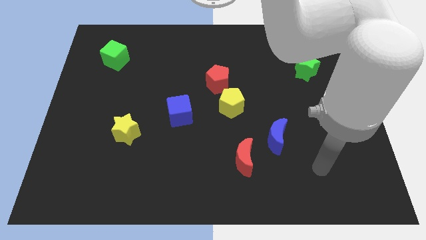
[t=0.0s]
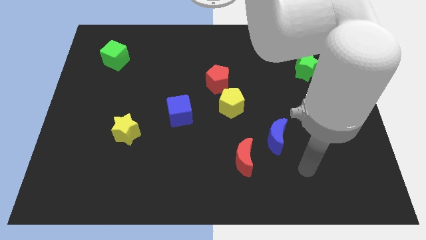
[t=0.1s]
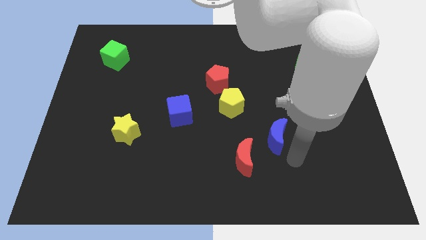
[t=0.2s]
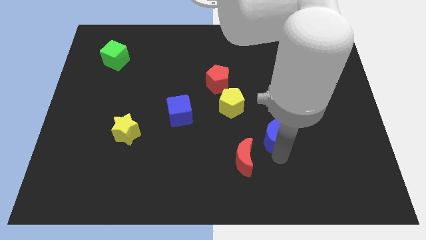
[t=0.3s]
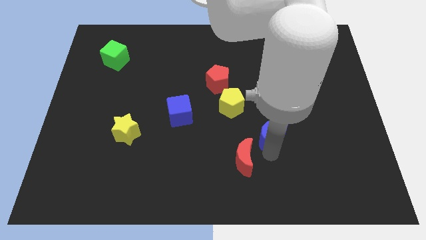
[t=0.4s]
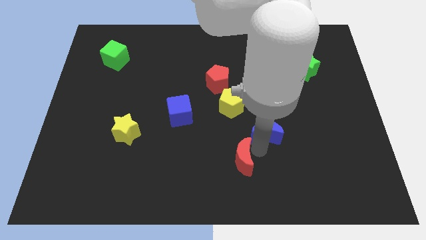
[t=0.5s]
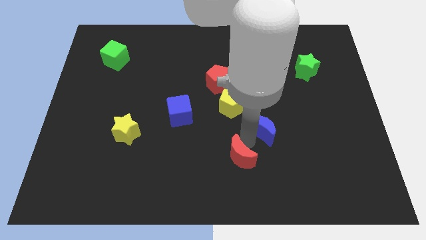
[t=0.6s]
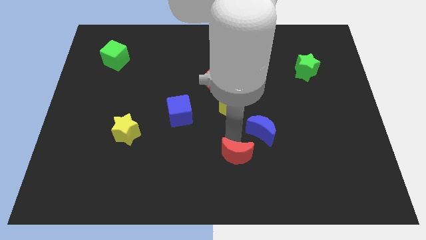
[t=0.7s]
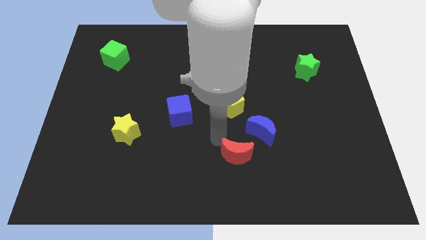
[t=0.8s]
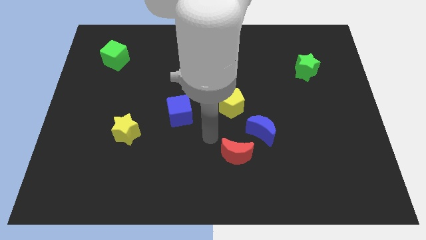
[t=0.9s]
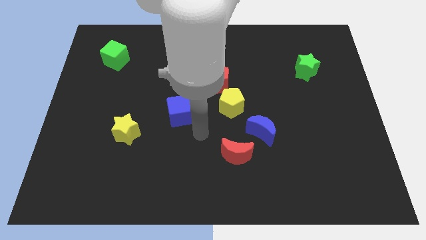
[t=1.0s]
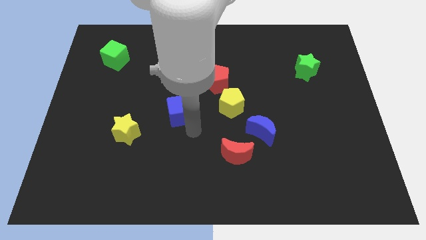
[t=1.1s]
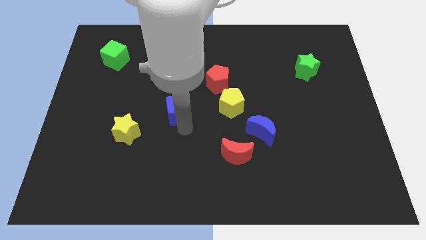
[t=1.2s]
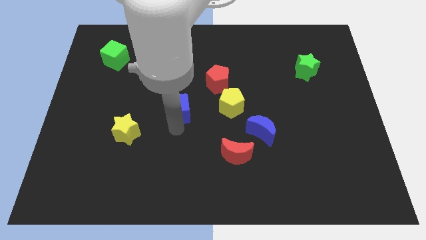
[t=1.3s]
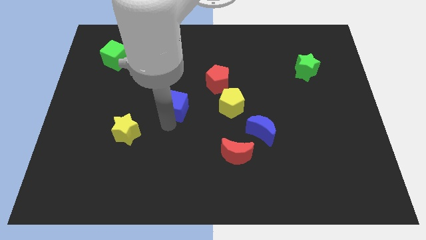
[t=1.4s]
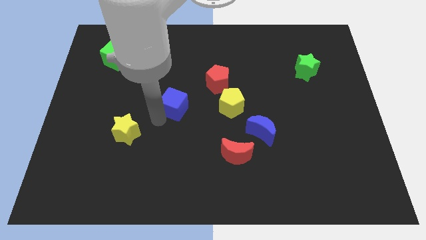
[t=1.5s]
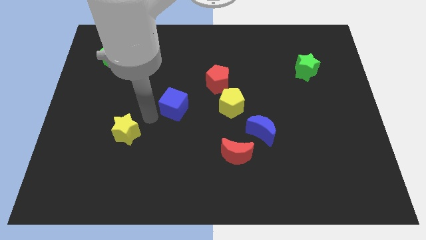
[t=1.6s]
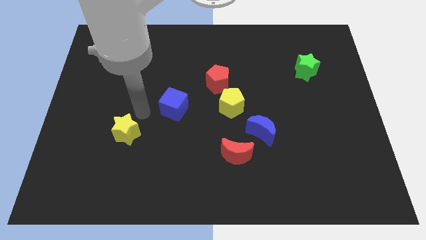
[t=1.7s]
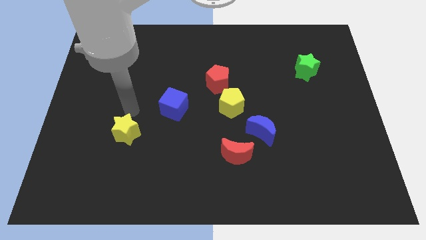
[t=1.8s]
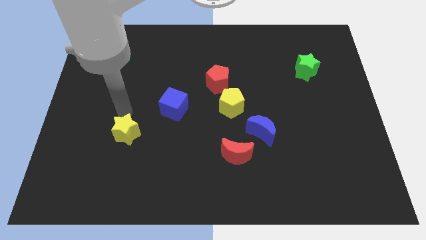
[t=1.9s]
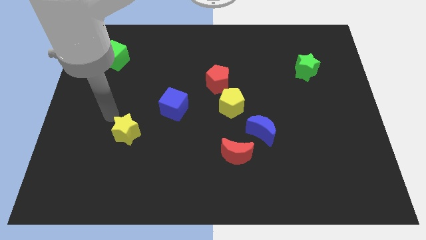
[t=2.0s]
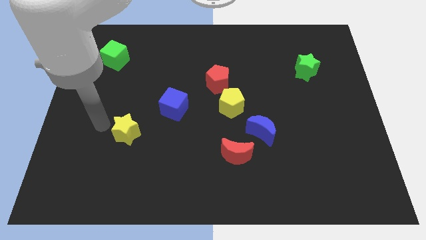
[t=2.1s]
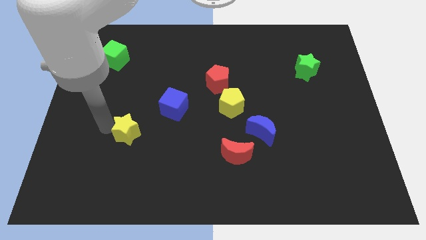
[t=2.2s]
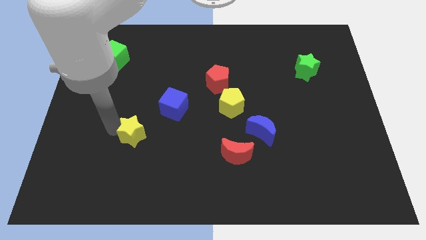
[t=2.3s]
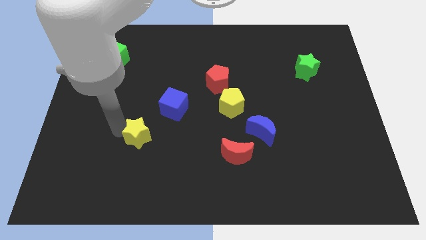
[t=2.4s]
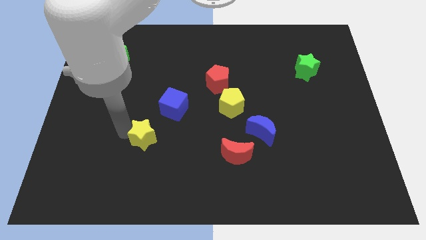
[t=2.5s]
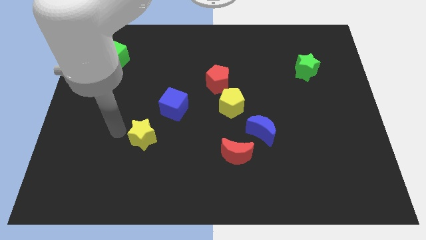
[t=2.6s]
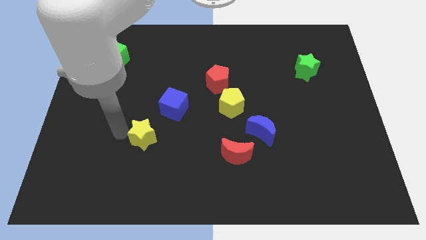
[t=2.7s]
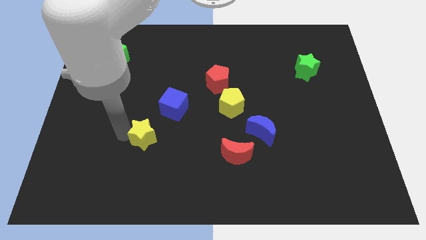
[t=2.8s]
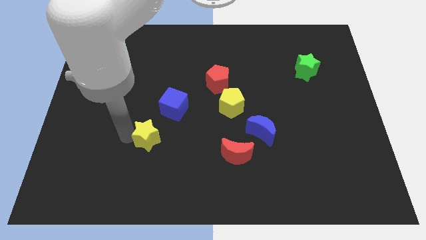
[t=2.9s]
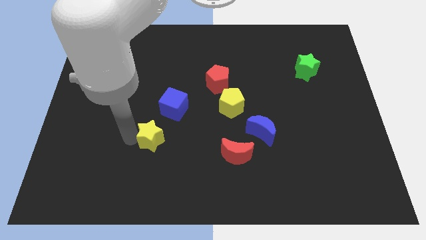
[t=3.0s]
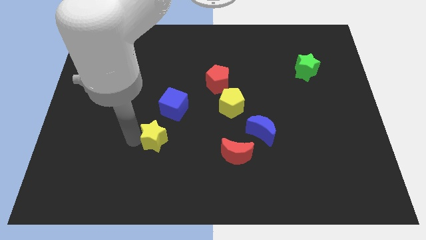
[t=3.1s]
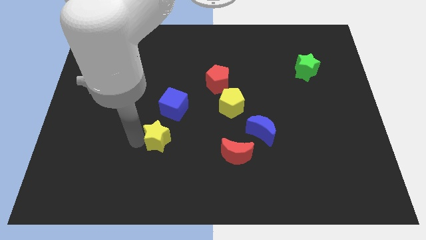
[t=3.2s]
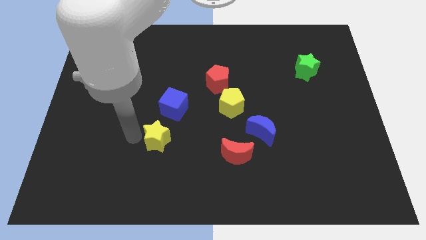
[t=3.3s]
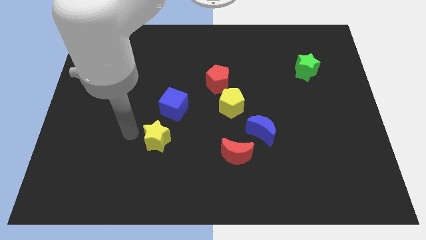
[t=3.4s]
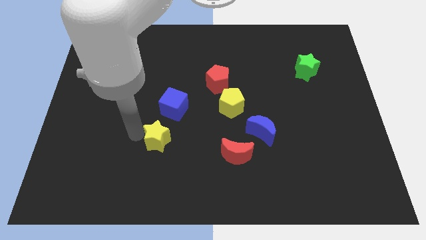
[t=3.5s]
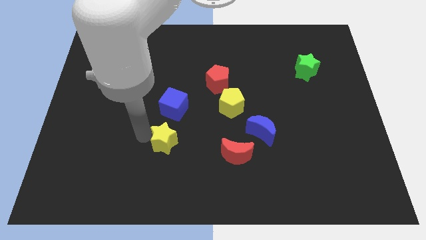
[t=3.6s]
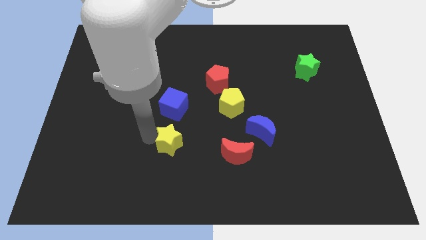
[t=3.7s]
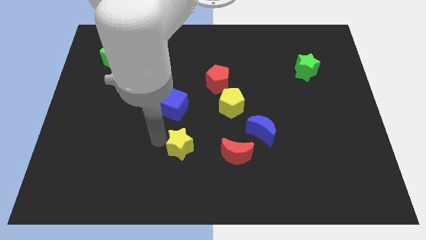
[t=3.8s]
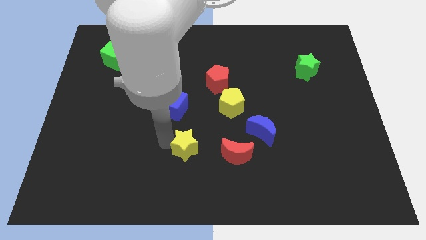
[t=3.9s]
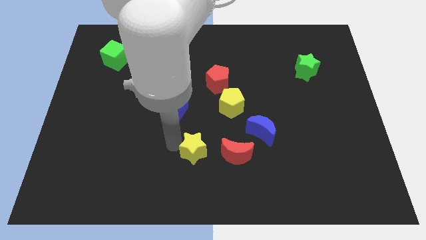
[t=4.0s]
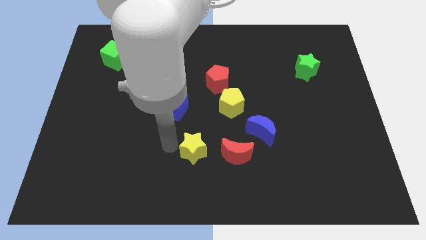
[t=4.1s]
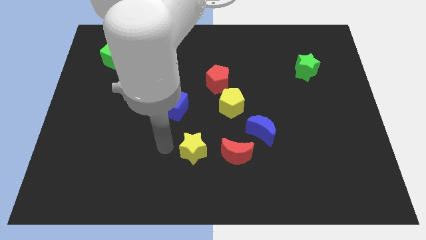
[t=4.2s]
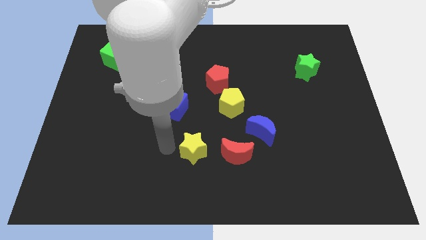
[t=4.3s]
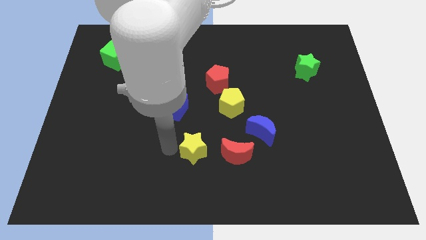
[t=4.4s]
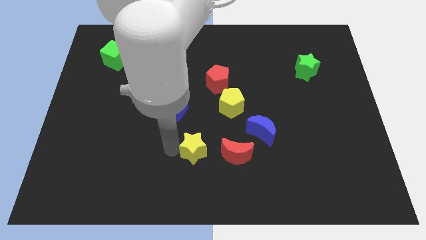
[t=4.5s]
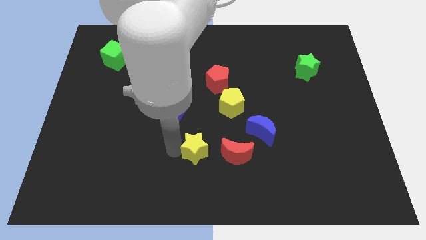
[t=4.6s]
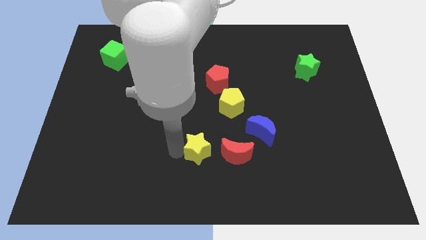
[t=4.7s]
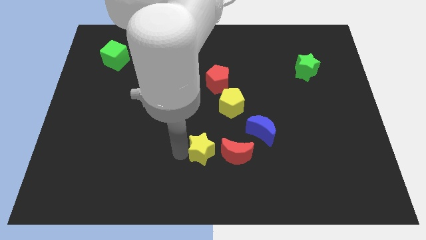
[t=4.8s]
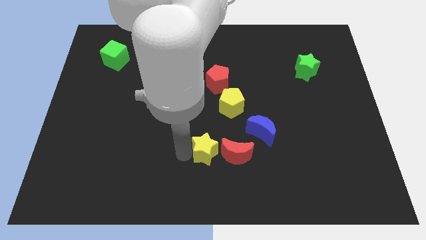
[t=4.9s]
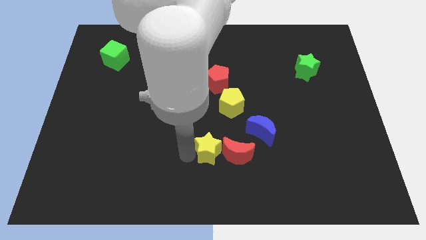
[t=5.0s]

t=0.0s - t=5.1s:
push the yellow star towards the red moon

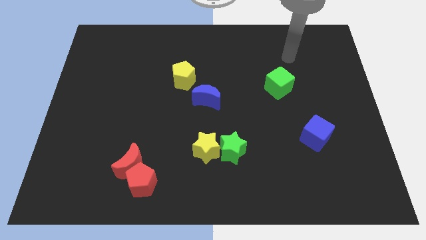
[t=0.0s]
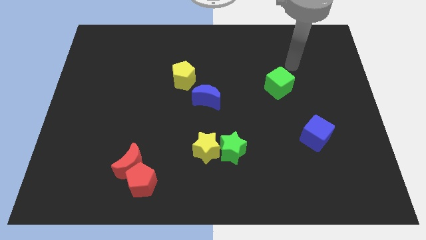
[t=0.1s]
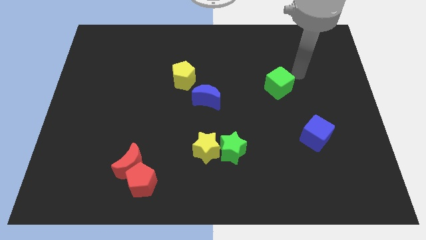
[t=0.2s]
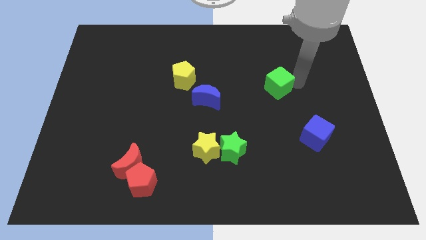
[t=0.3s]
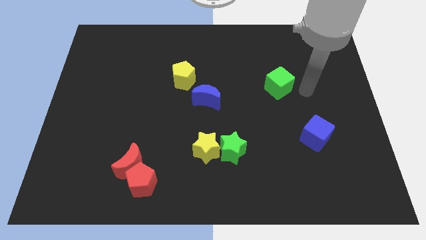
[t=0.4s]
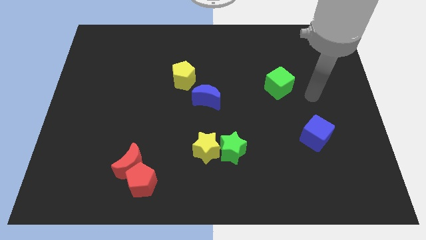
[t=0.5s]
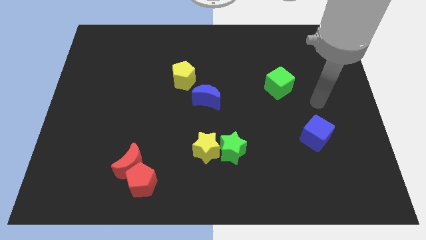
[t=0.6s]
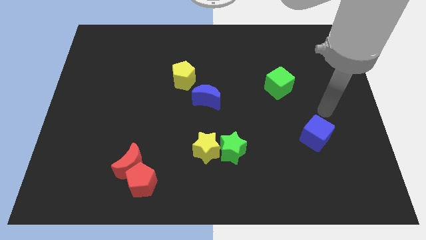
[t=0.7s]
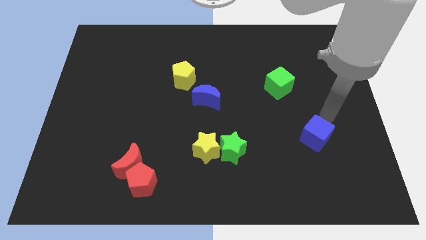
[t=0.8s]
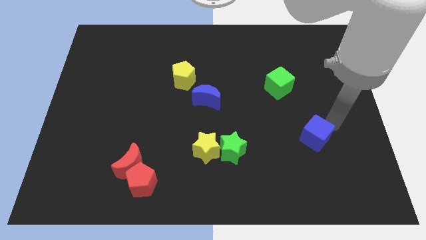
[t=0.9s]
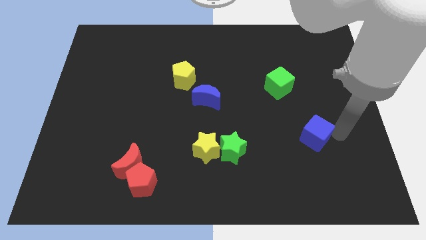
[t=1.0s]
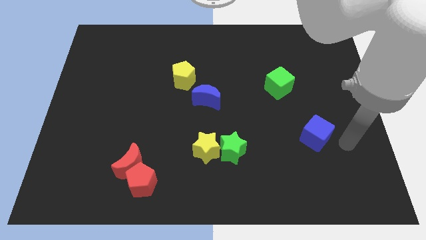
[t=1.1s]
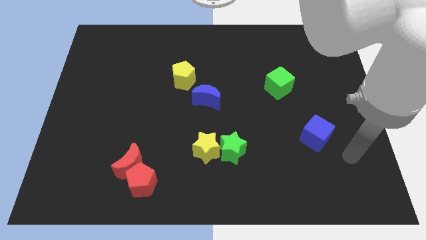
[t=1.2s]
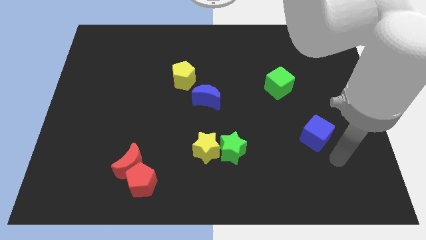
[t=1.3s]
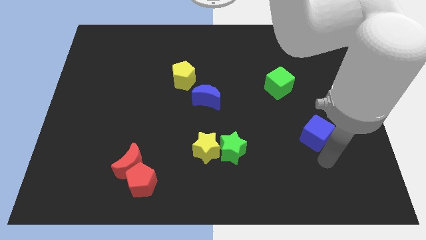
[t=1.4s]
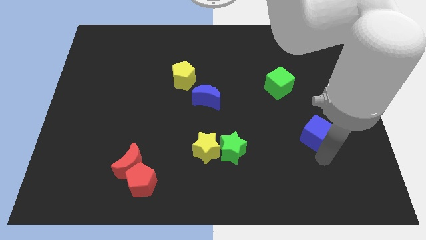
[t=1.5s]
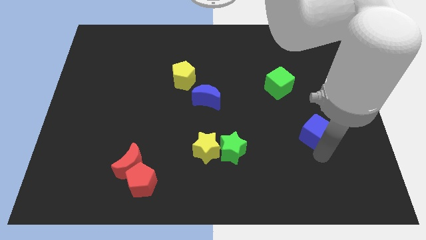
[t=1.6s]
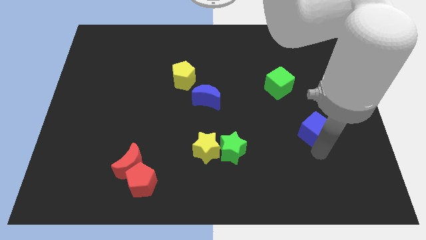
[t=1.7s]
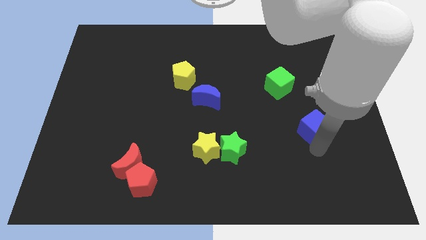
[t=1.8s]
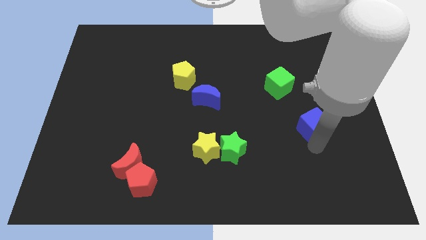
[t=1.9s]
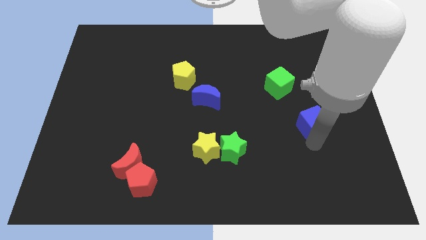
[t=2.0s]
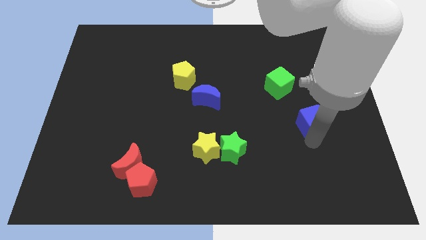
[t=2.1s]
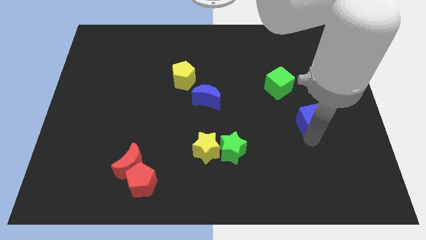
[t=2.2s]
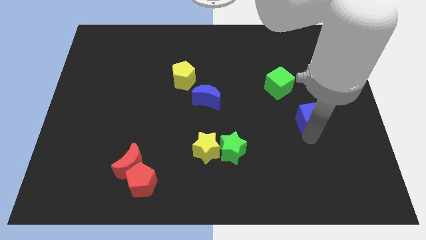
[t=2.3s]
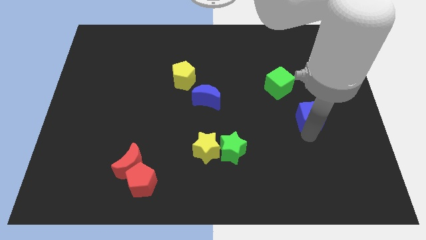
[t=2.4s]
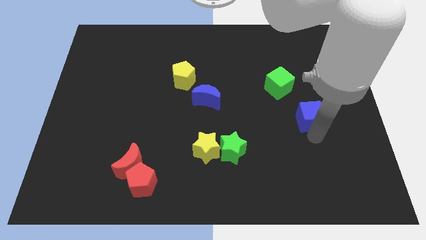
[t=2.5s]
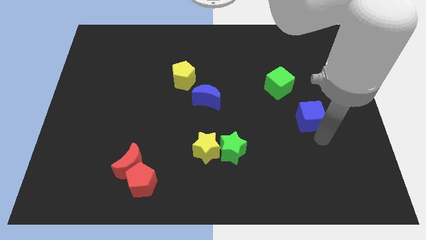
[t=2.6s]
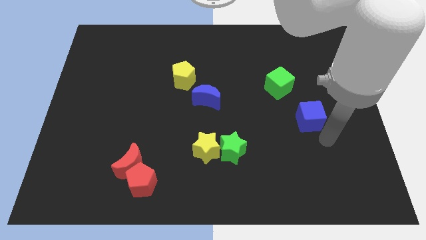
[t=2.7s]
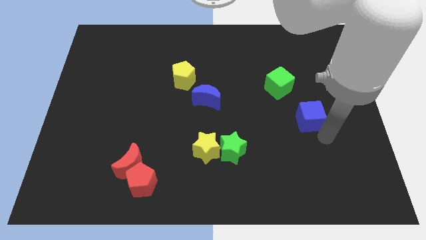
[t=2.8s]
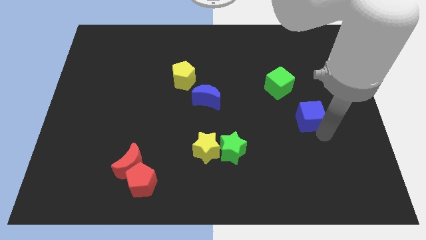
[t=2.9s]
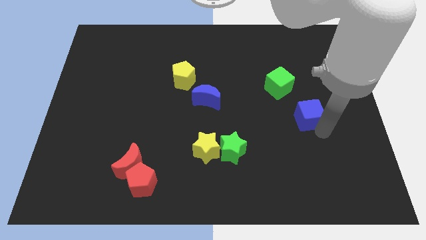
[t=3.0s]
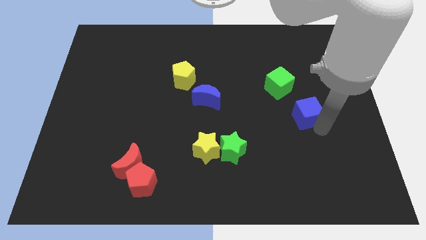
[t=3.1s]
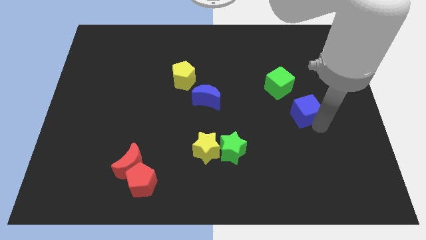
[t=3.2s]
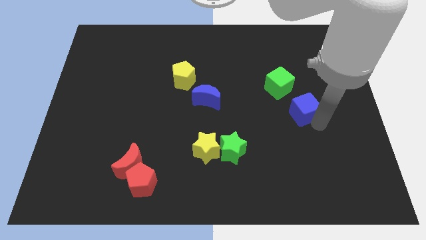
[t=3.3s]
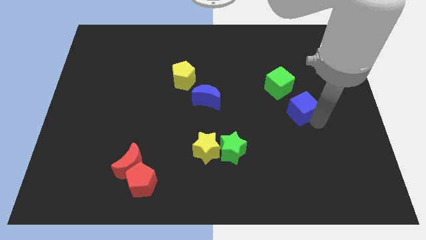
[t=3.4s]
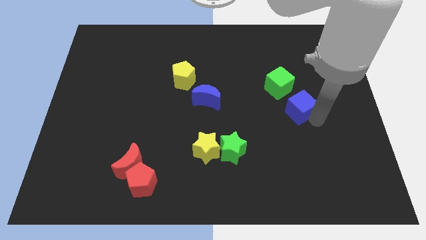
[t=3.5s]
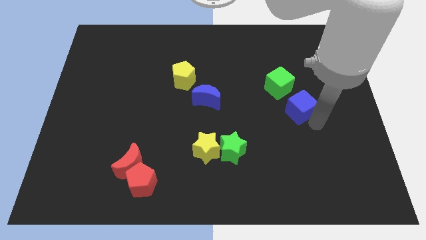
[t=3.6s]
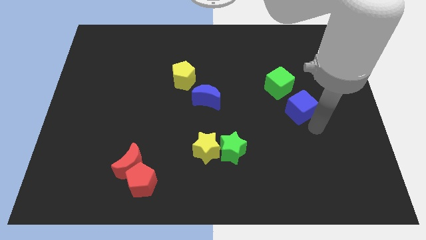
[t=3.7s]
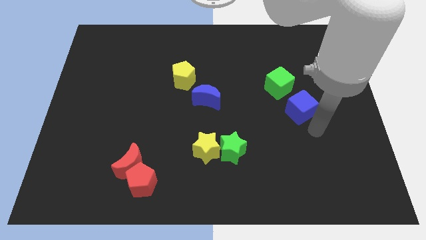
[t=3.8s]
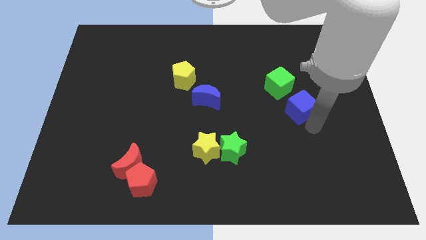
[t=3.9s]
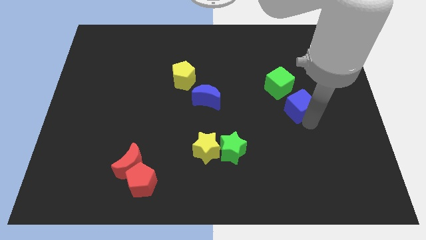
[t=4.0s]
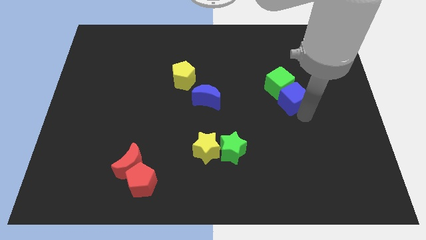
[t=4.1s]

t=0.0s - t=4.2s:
push the blue cube towards the green cube
